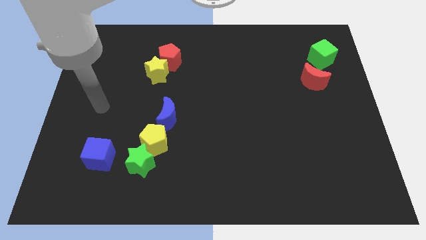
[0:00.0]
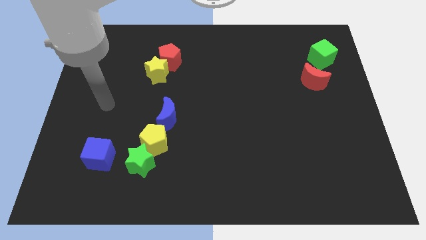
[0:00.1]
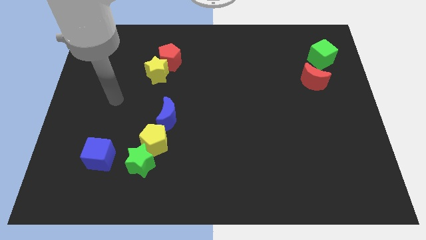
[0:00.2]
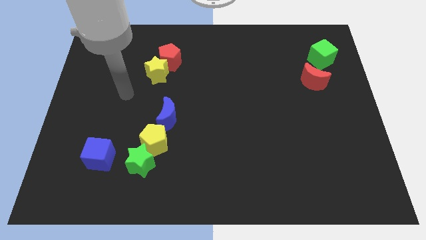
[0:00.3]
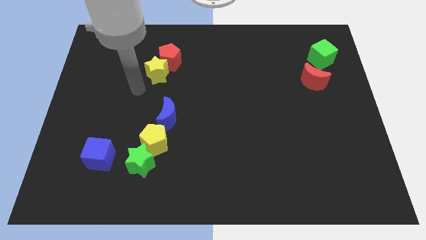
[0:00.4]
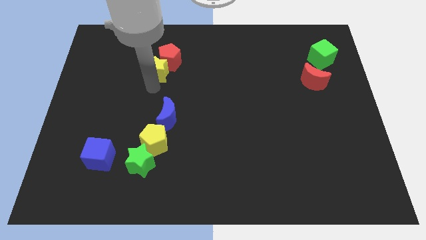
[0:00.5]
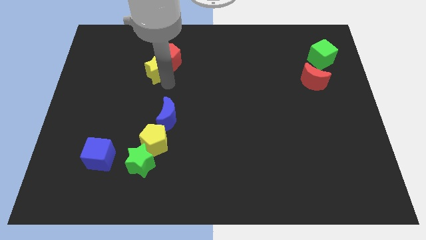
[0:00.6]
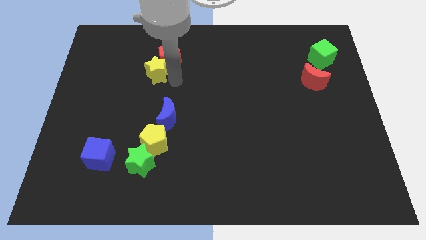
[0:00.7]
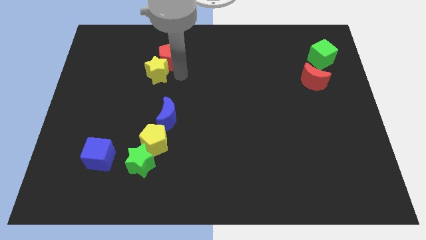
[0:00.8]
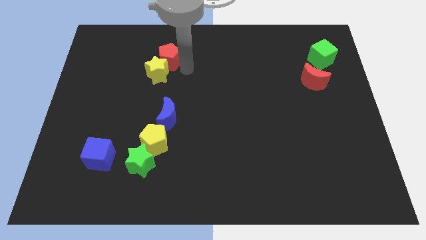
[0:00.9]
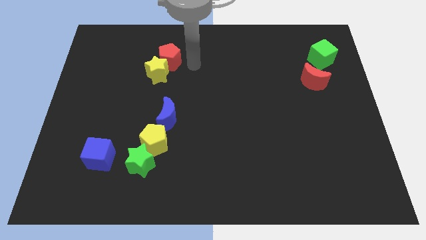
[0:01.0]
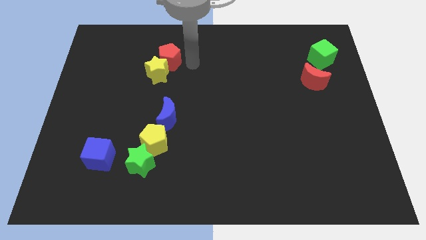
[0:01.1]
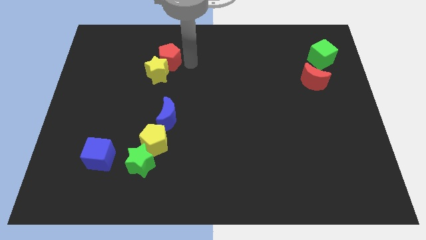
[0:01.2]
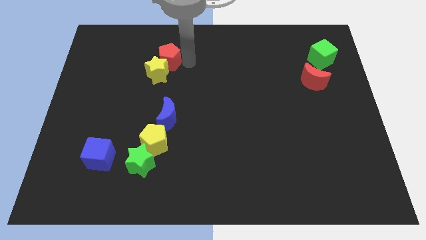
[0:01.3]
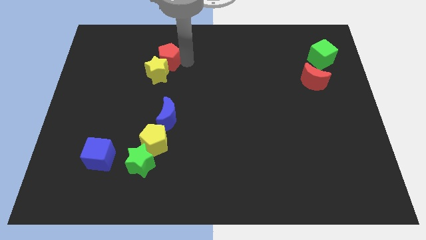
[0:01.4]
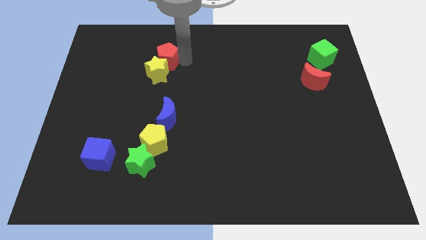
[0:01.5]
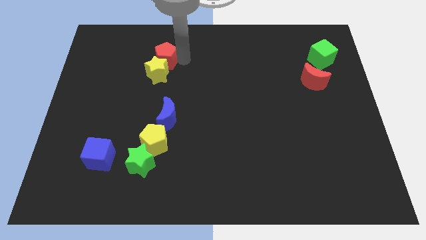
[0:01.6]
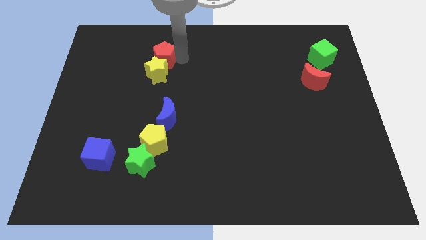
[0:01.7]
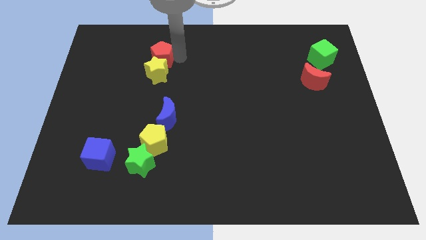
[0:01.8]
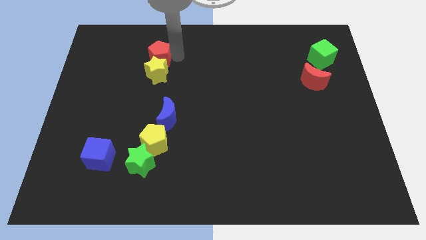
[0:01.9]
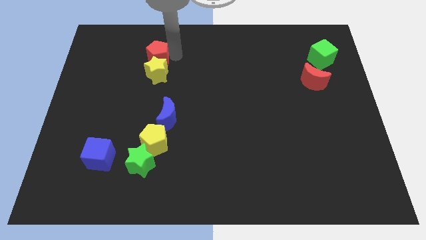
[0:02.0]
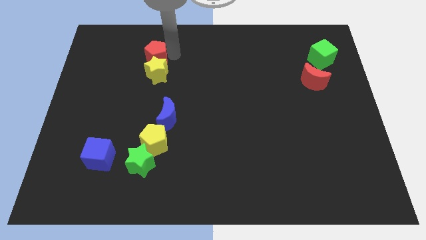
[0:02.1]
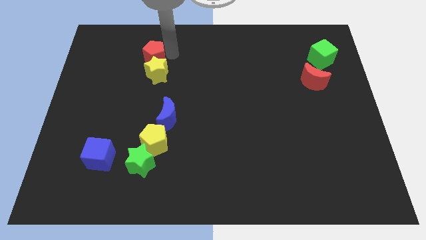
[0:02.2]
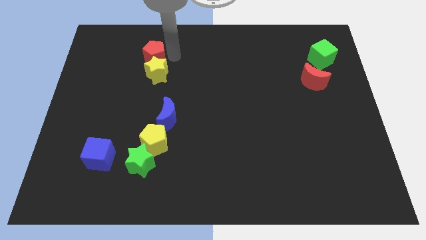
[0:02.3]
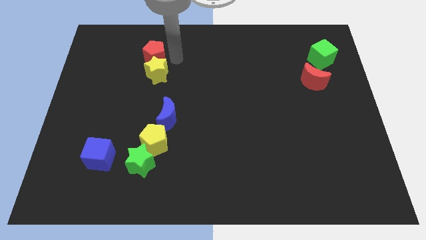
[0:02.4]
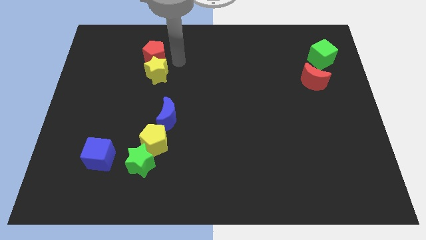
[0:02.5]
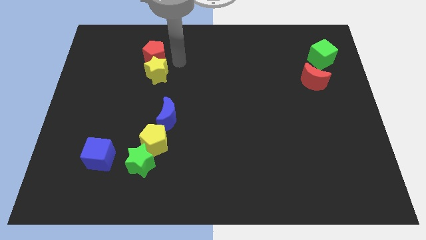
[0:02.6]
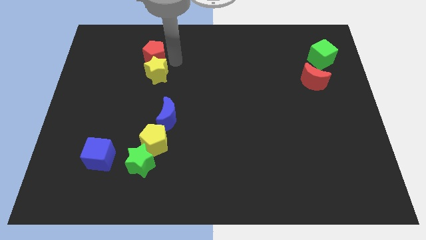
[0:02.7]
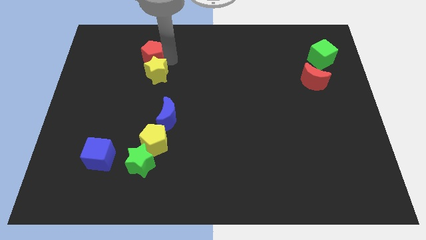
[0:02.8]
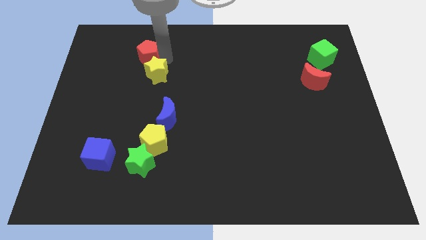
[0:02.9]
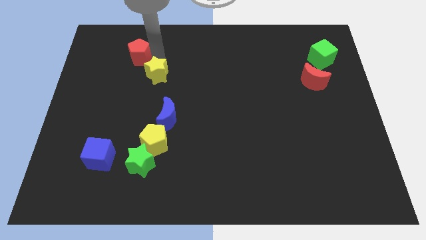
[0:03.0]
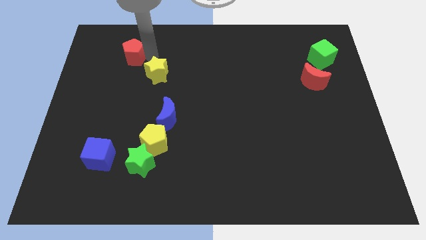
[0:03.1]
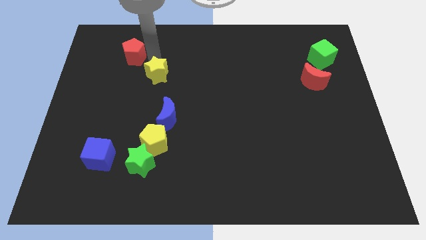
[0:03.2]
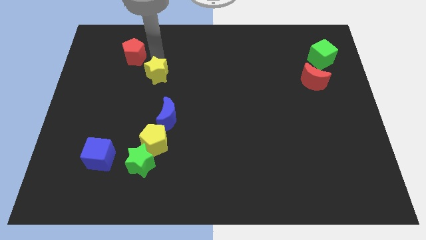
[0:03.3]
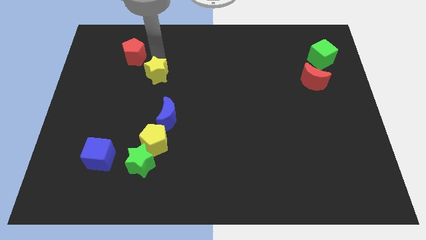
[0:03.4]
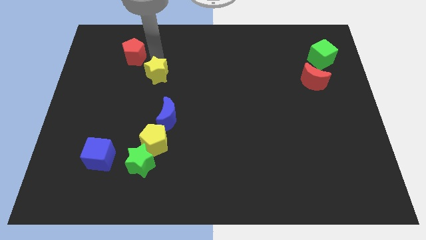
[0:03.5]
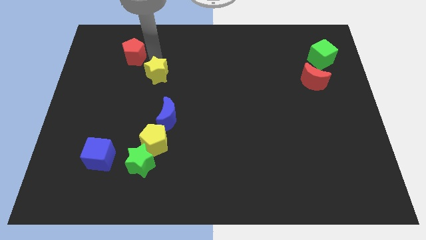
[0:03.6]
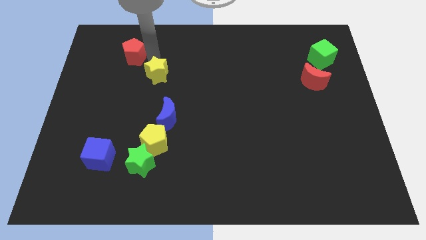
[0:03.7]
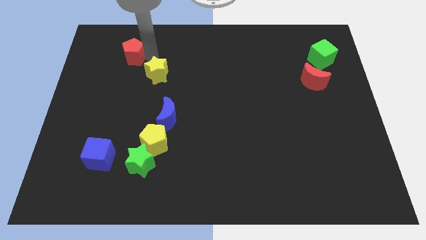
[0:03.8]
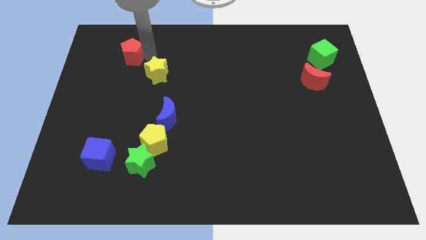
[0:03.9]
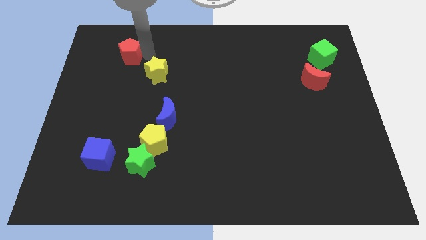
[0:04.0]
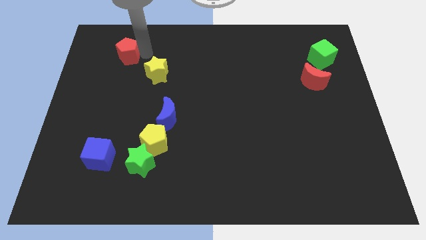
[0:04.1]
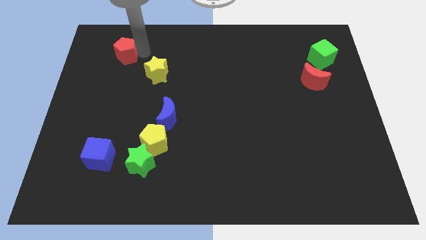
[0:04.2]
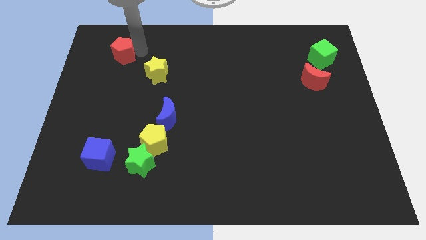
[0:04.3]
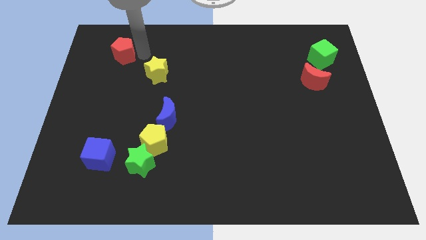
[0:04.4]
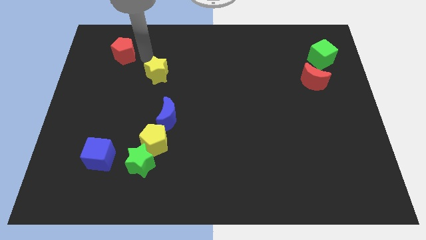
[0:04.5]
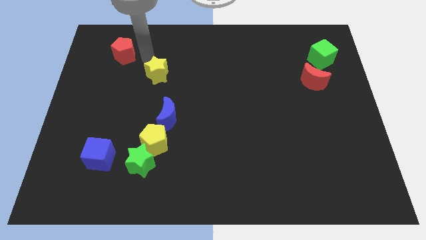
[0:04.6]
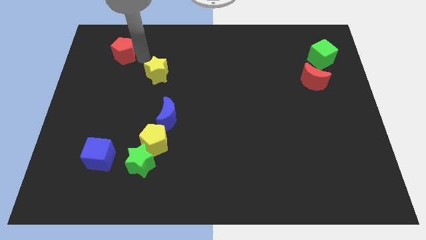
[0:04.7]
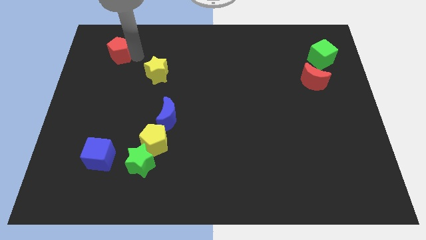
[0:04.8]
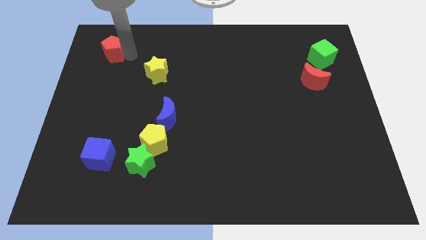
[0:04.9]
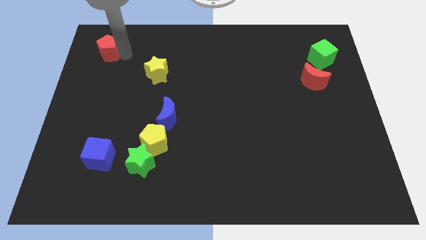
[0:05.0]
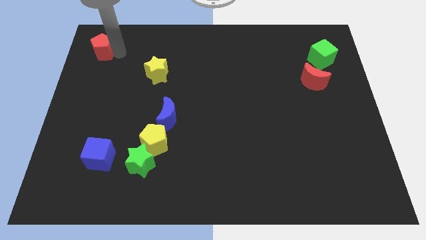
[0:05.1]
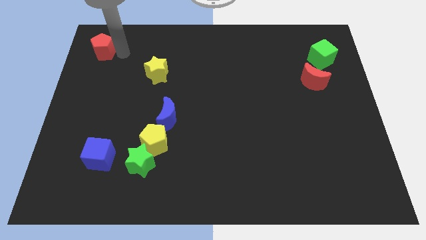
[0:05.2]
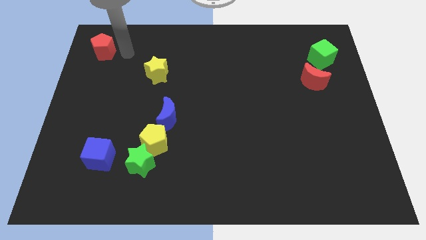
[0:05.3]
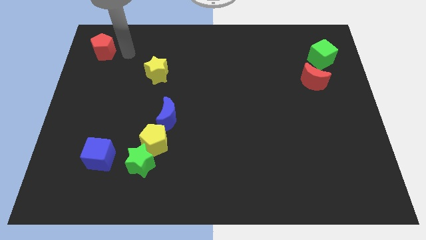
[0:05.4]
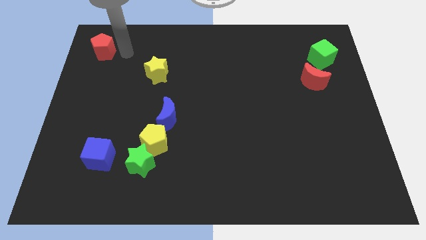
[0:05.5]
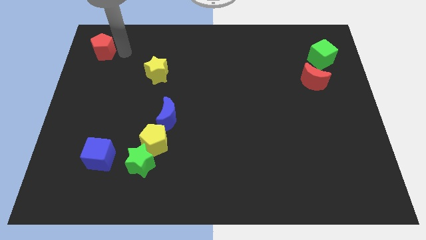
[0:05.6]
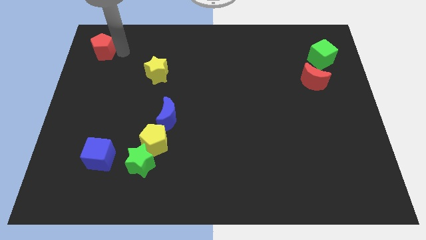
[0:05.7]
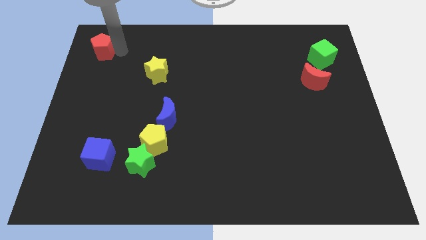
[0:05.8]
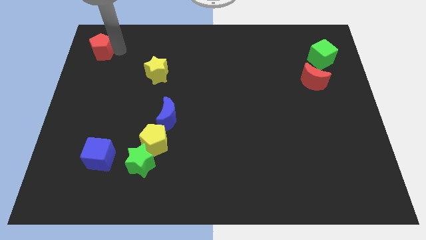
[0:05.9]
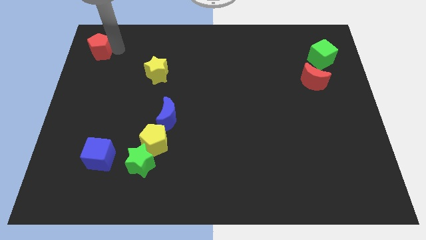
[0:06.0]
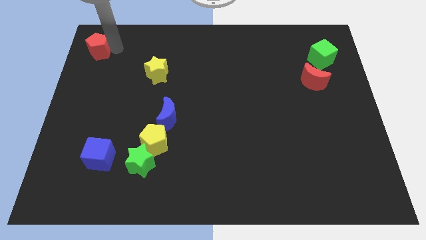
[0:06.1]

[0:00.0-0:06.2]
put the red pentagon to the top left corner

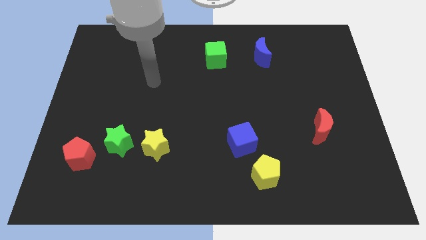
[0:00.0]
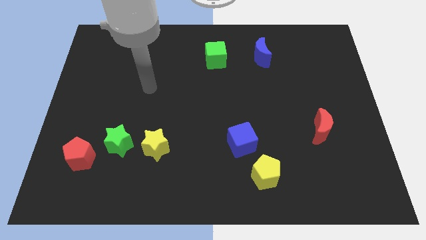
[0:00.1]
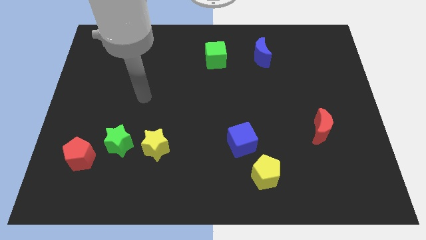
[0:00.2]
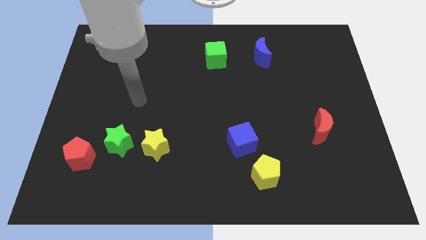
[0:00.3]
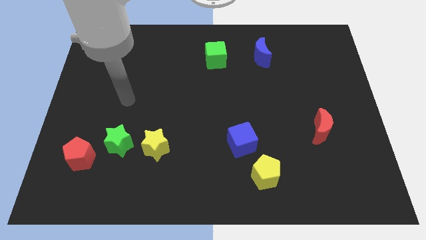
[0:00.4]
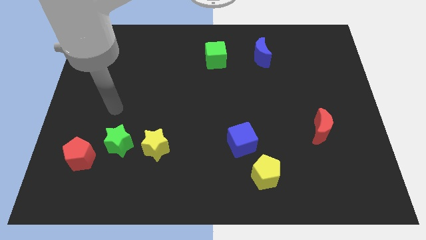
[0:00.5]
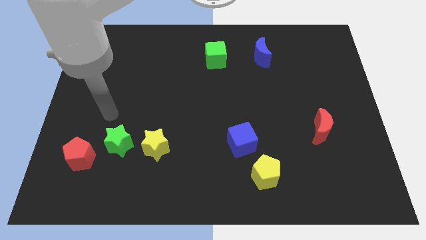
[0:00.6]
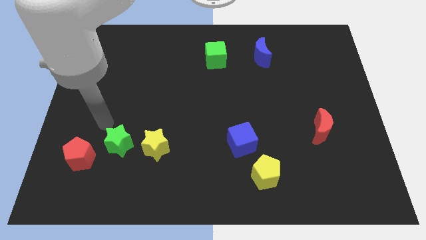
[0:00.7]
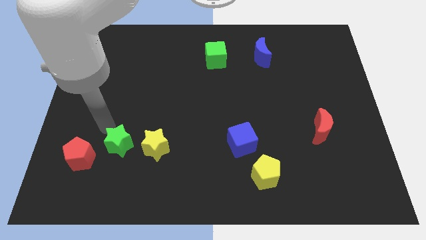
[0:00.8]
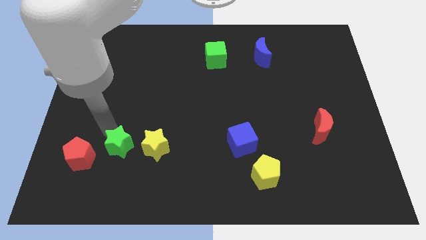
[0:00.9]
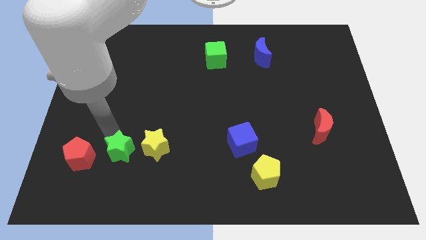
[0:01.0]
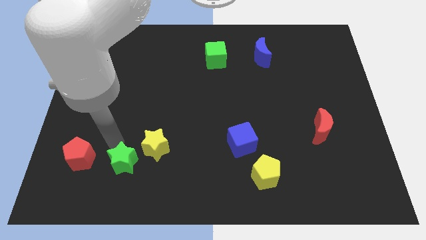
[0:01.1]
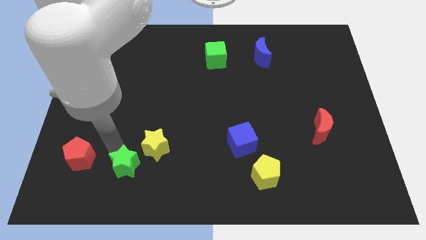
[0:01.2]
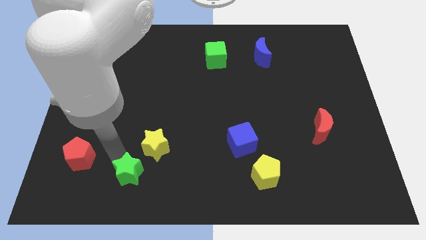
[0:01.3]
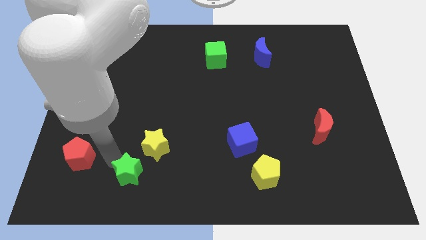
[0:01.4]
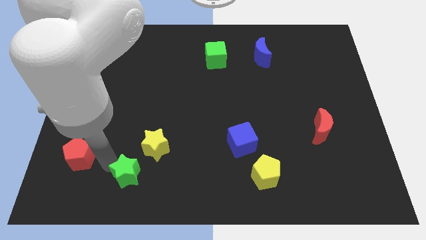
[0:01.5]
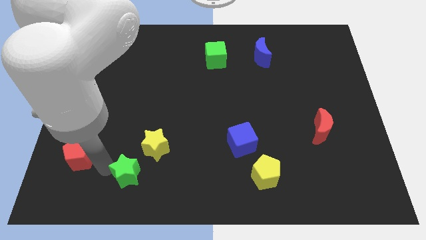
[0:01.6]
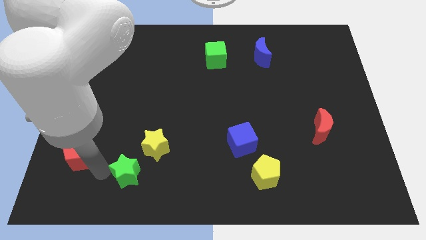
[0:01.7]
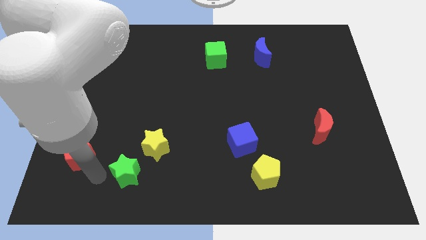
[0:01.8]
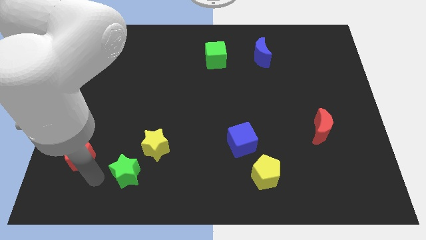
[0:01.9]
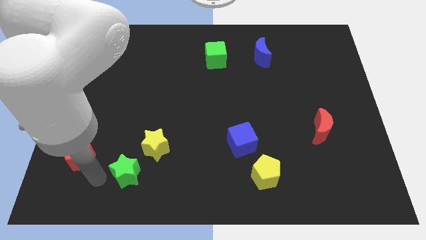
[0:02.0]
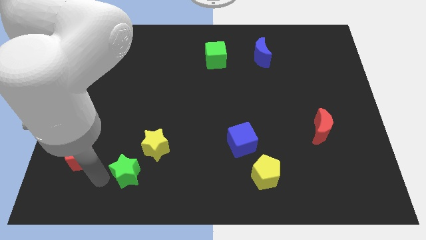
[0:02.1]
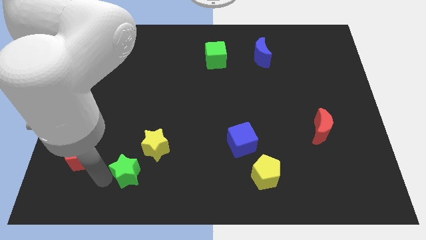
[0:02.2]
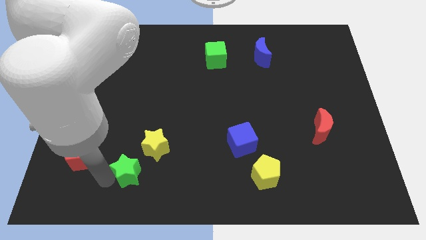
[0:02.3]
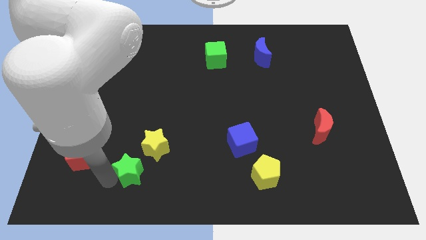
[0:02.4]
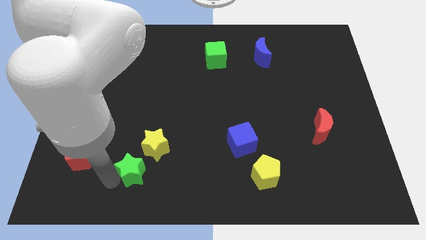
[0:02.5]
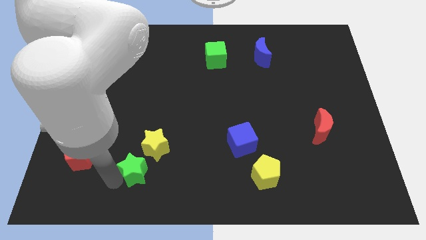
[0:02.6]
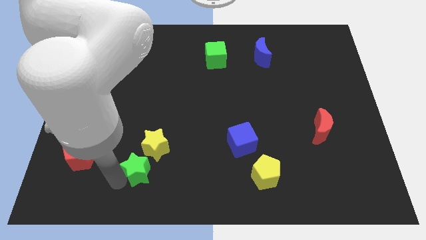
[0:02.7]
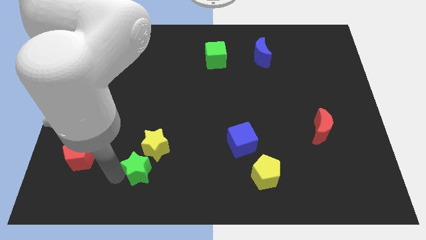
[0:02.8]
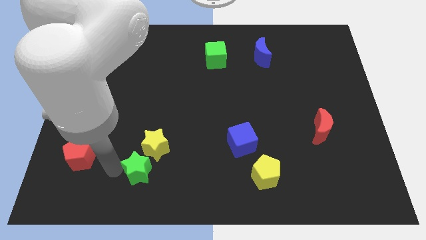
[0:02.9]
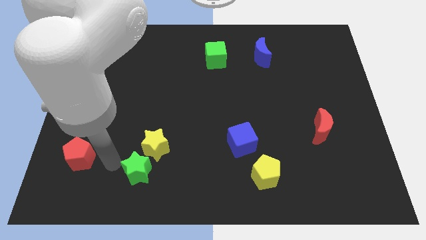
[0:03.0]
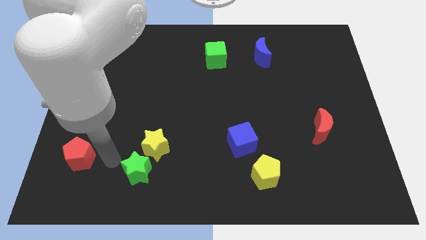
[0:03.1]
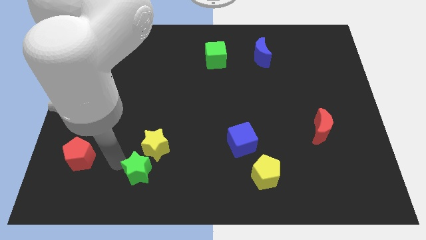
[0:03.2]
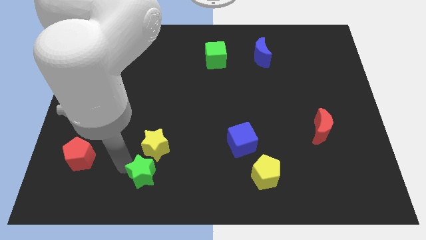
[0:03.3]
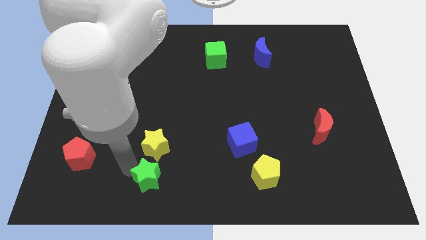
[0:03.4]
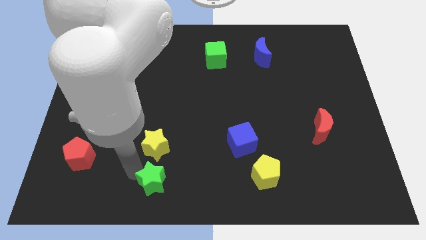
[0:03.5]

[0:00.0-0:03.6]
move the green star to the bottom
